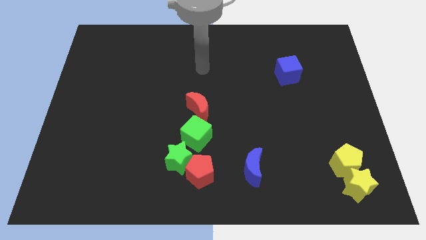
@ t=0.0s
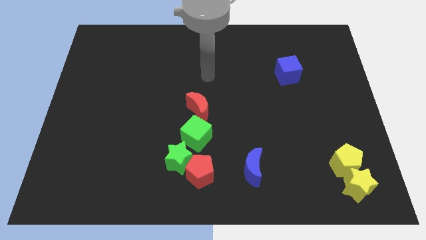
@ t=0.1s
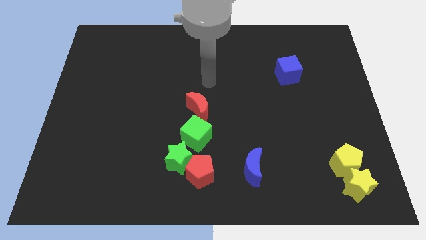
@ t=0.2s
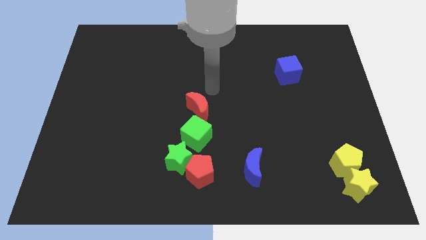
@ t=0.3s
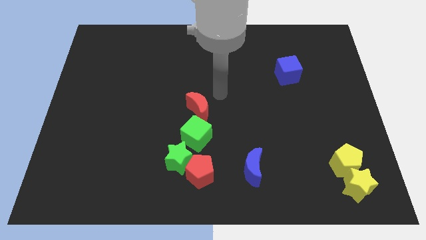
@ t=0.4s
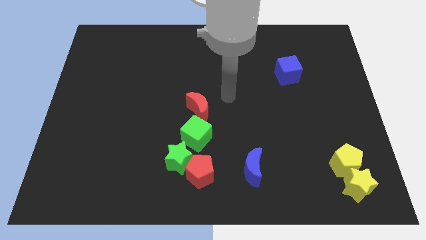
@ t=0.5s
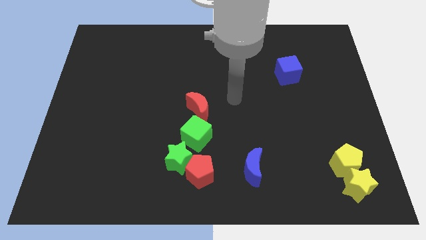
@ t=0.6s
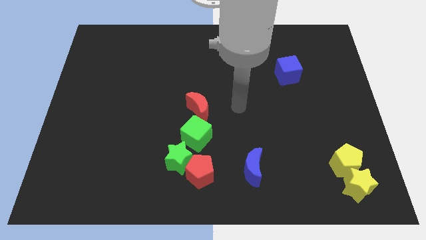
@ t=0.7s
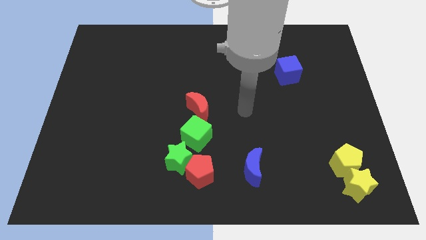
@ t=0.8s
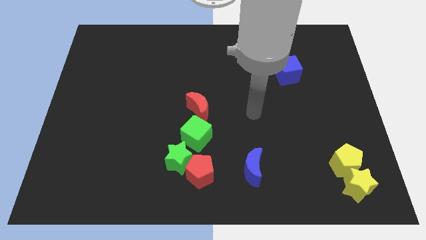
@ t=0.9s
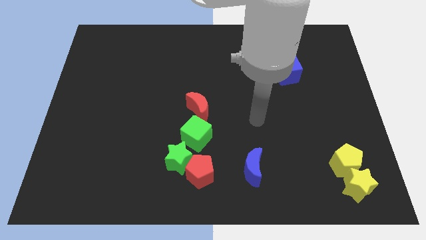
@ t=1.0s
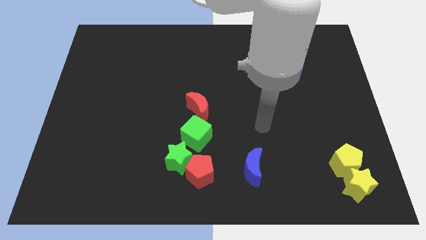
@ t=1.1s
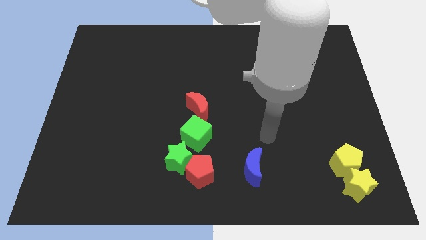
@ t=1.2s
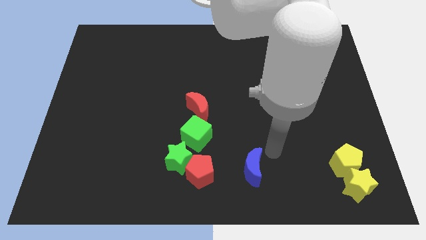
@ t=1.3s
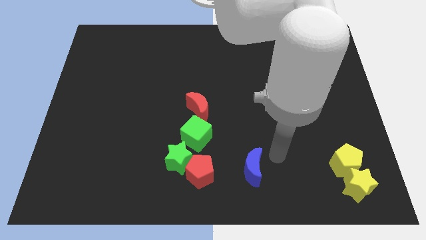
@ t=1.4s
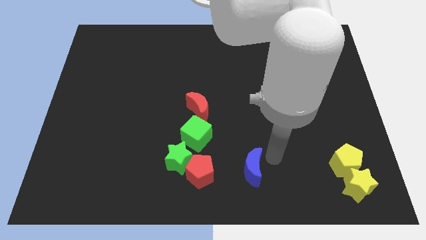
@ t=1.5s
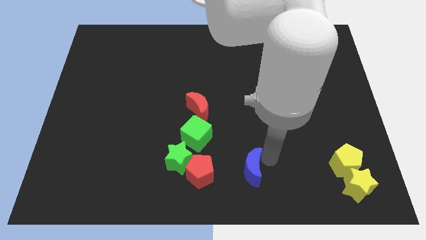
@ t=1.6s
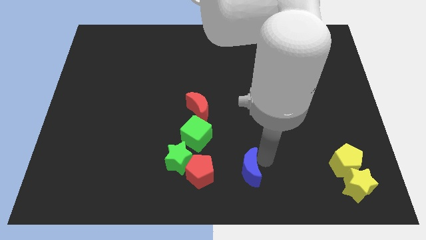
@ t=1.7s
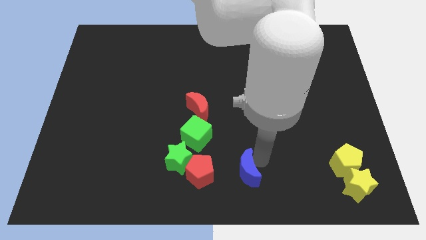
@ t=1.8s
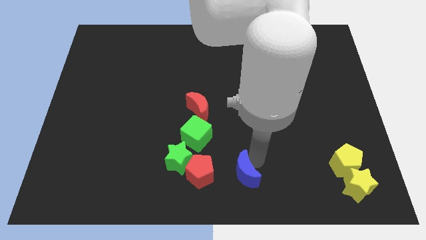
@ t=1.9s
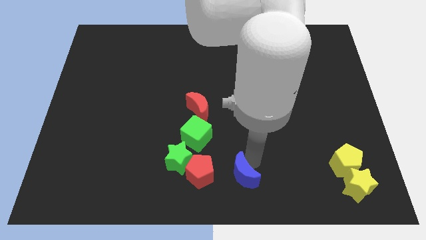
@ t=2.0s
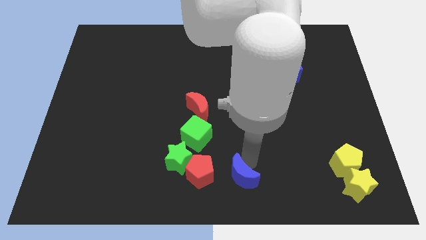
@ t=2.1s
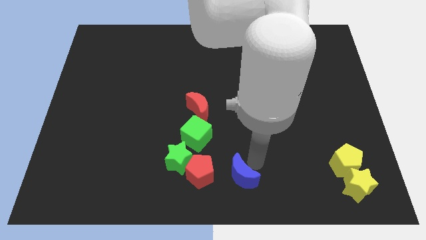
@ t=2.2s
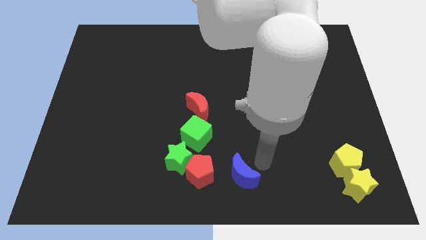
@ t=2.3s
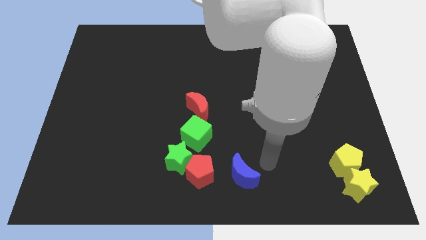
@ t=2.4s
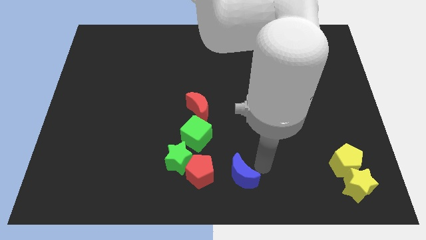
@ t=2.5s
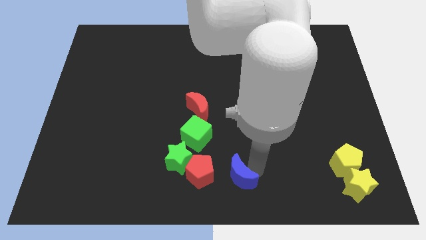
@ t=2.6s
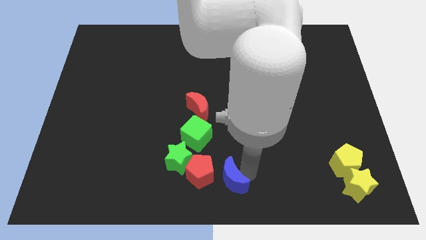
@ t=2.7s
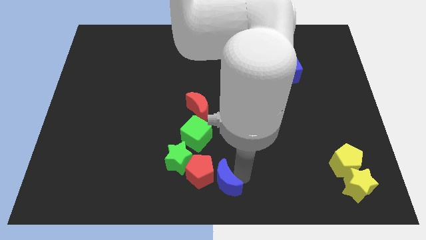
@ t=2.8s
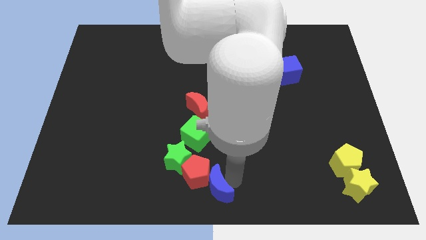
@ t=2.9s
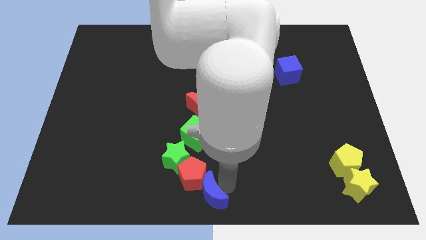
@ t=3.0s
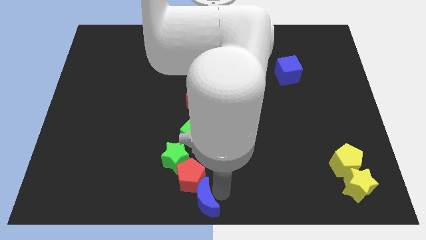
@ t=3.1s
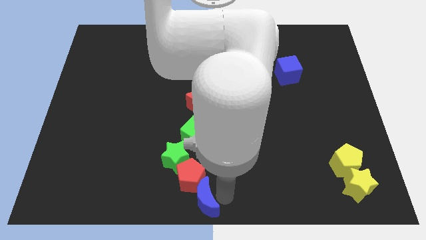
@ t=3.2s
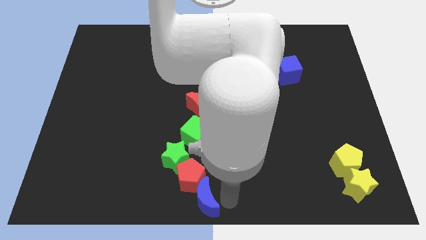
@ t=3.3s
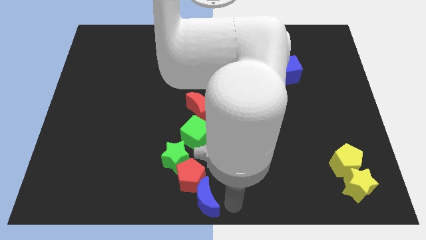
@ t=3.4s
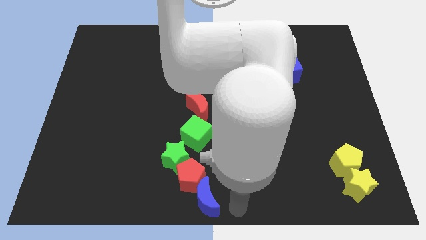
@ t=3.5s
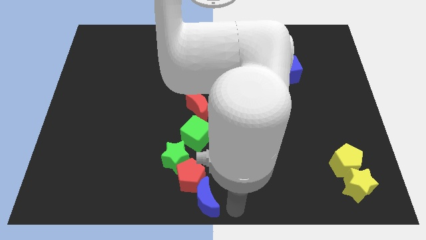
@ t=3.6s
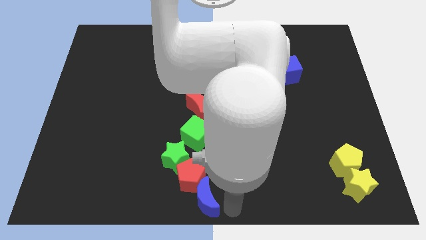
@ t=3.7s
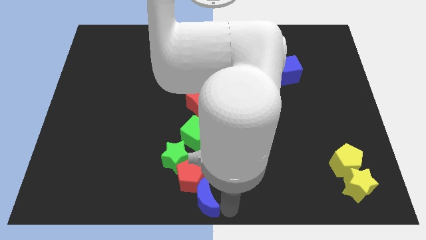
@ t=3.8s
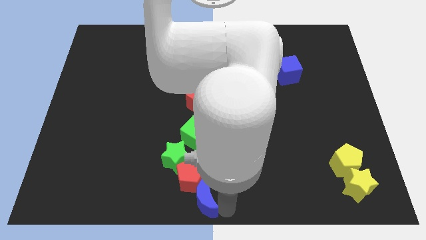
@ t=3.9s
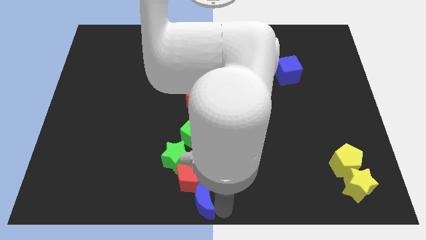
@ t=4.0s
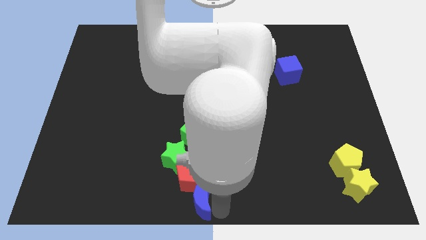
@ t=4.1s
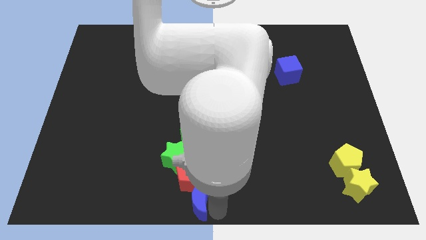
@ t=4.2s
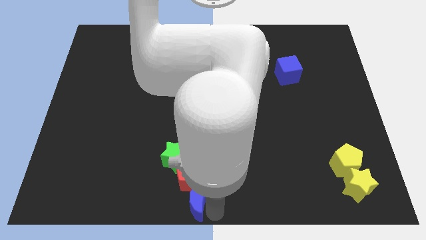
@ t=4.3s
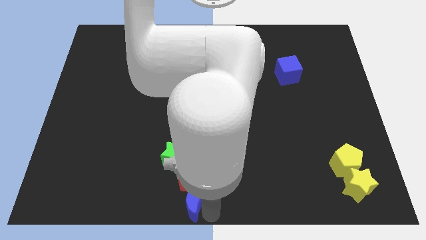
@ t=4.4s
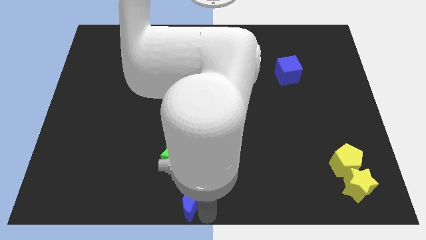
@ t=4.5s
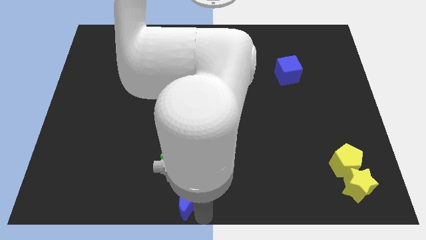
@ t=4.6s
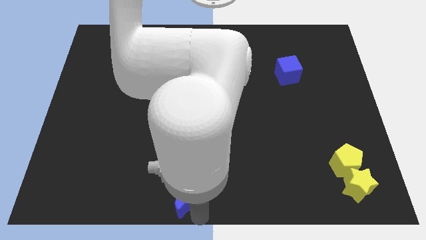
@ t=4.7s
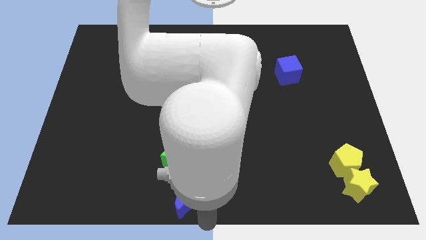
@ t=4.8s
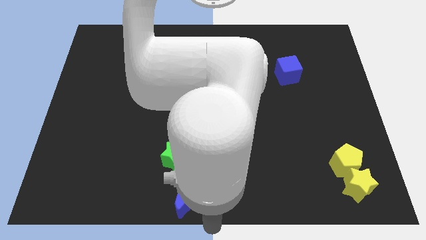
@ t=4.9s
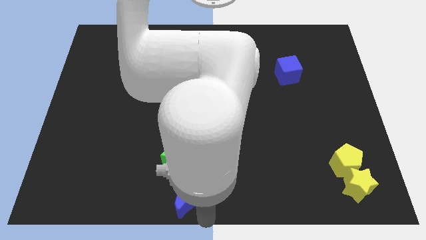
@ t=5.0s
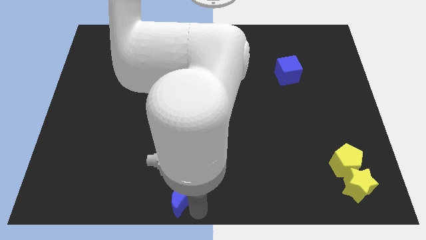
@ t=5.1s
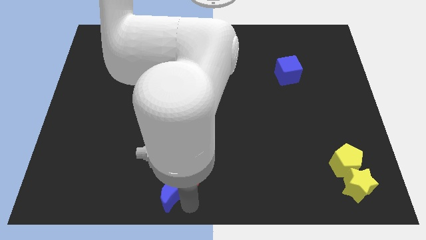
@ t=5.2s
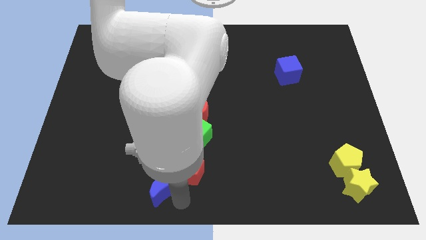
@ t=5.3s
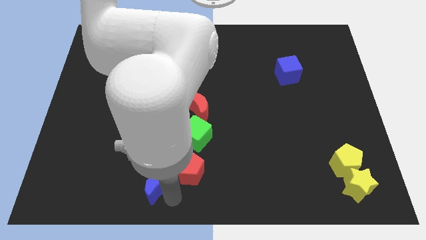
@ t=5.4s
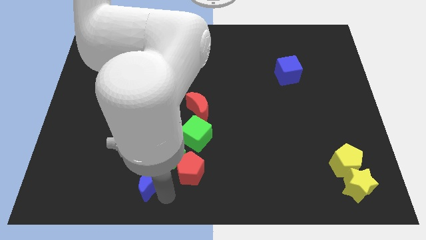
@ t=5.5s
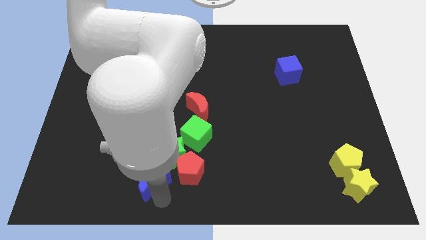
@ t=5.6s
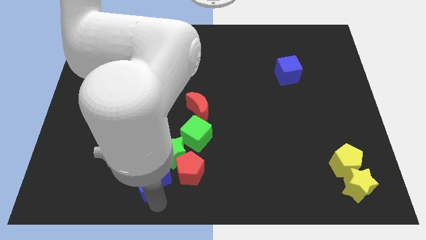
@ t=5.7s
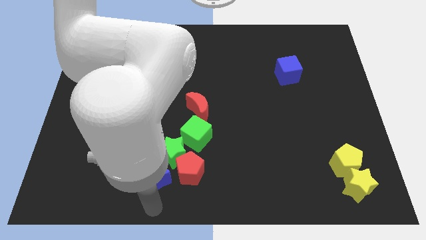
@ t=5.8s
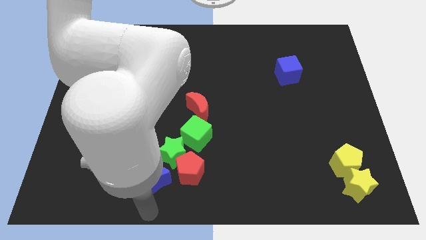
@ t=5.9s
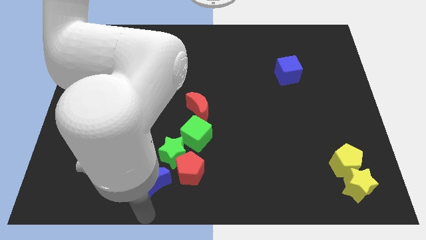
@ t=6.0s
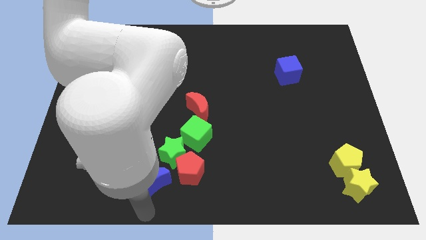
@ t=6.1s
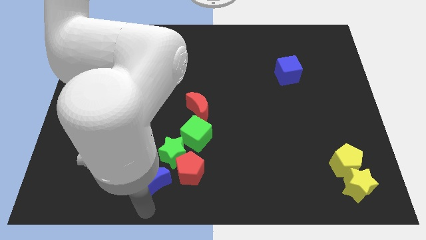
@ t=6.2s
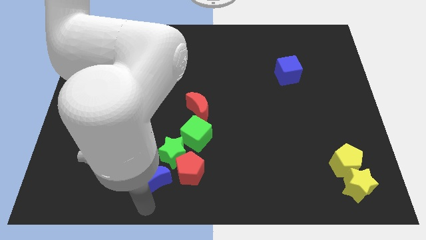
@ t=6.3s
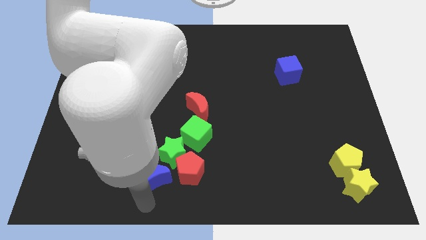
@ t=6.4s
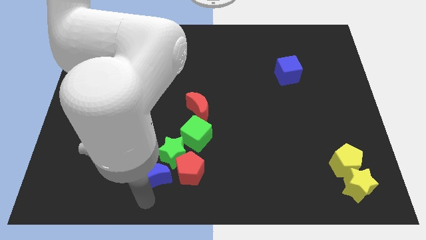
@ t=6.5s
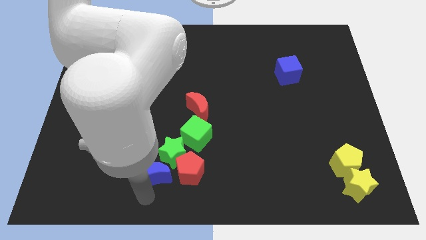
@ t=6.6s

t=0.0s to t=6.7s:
slide the blue moon diagonally down and to the left of the green cube

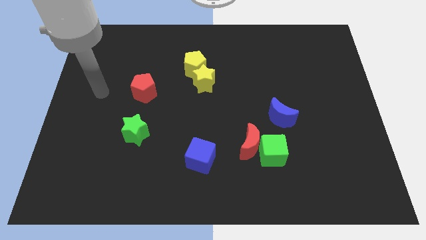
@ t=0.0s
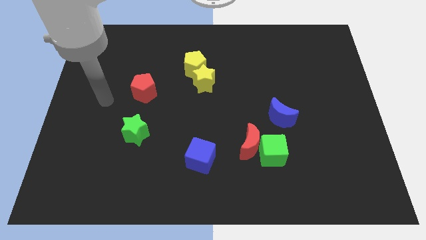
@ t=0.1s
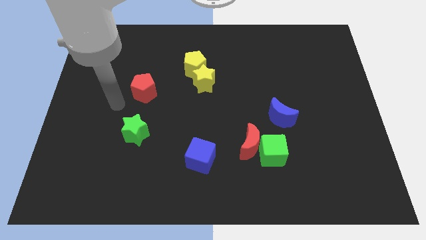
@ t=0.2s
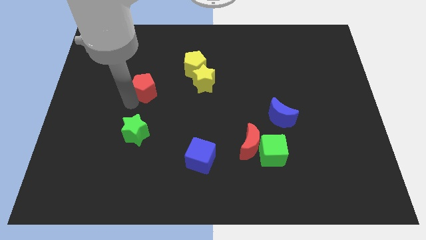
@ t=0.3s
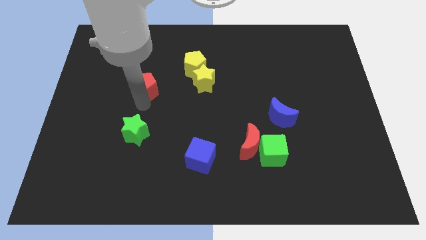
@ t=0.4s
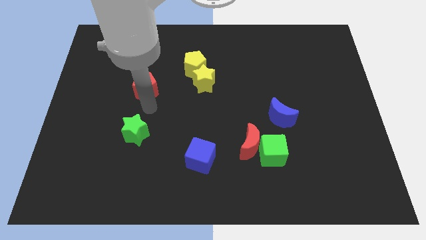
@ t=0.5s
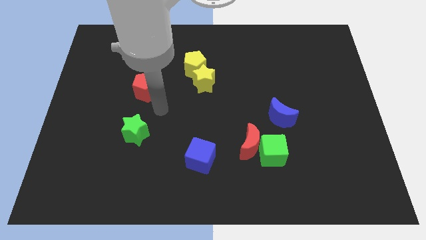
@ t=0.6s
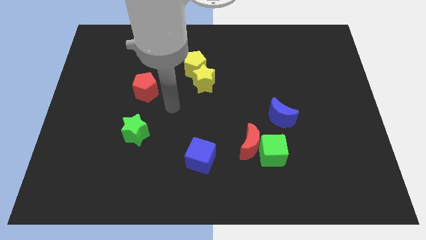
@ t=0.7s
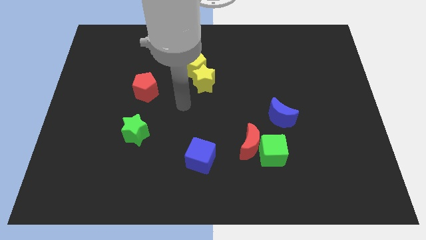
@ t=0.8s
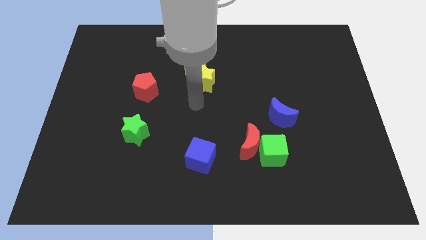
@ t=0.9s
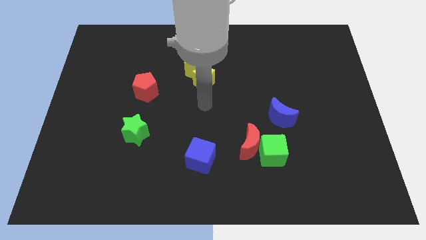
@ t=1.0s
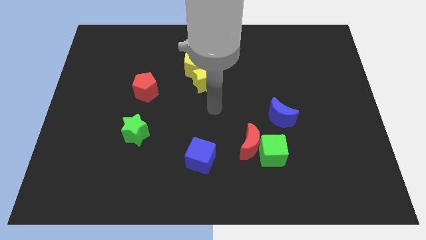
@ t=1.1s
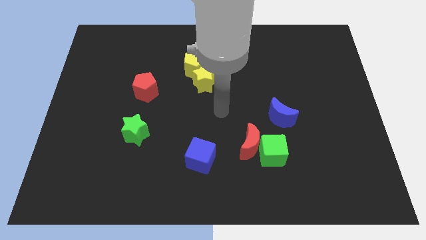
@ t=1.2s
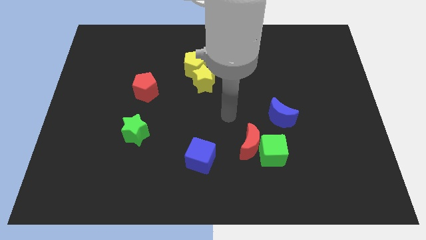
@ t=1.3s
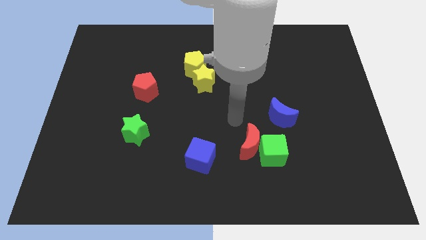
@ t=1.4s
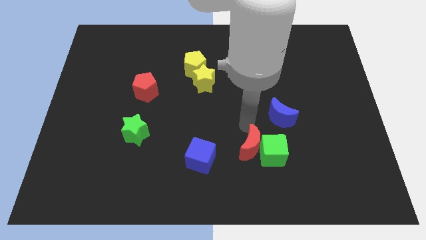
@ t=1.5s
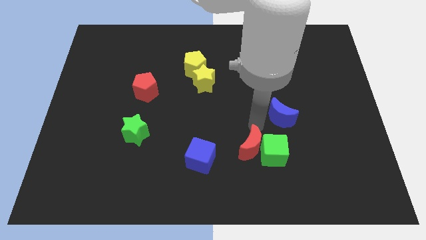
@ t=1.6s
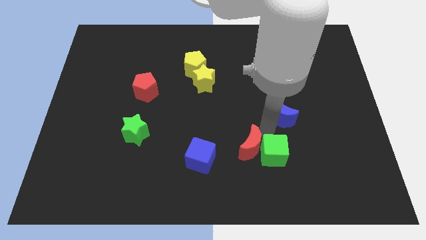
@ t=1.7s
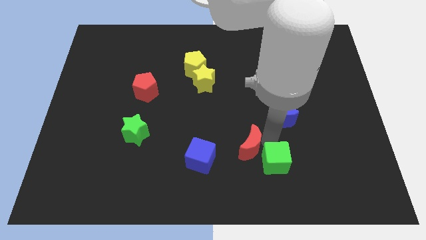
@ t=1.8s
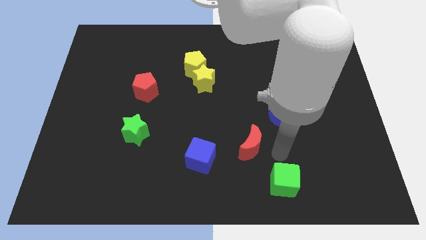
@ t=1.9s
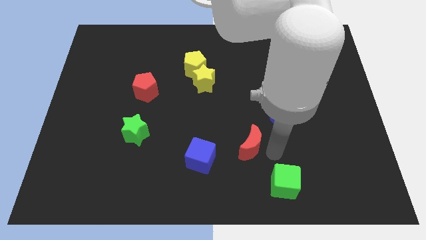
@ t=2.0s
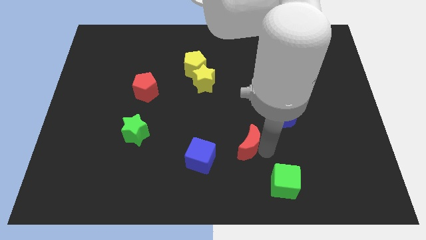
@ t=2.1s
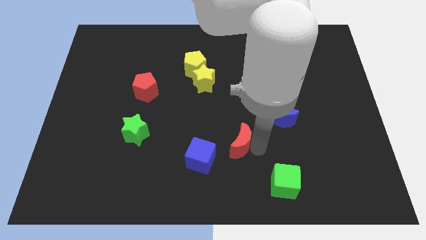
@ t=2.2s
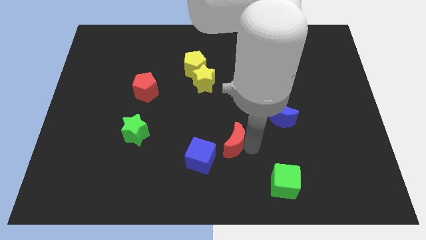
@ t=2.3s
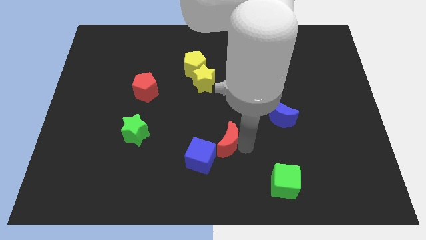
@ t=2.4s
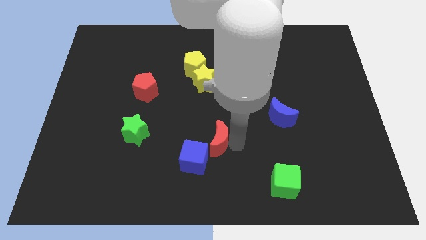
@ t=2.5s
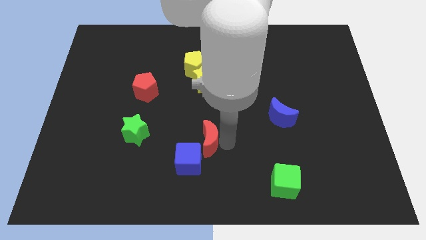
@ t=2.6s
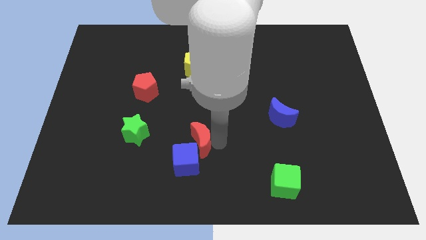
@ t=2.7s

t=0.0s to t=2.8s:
slide the red moon right of the green star
